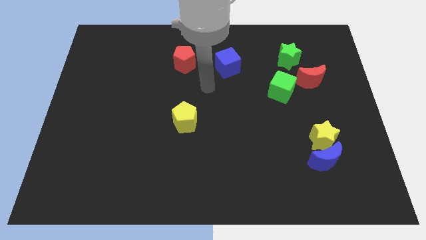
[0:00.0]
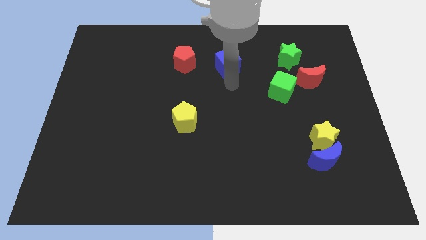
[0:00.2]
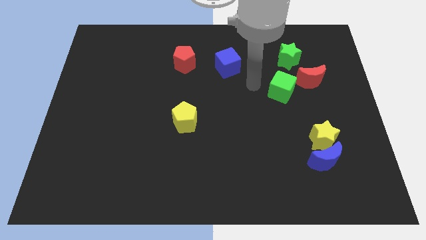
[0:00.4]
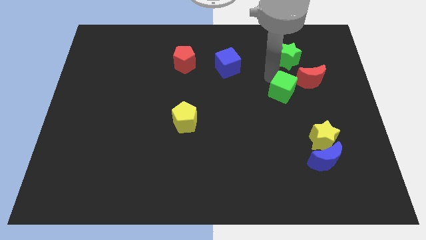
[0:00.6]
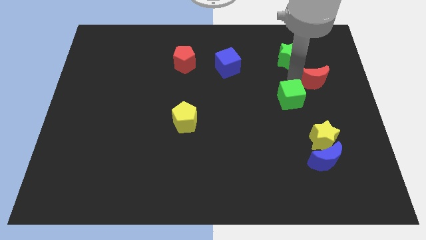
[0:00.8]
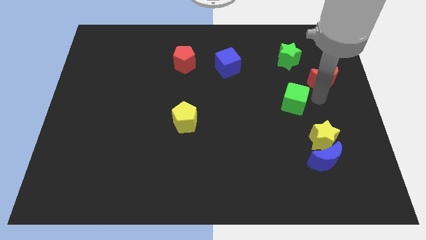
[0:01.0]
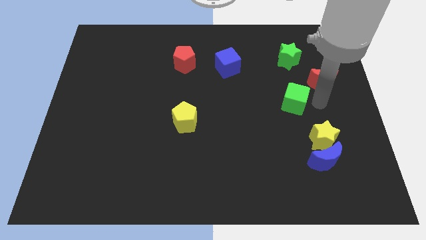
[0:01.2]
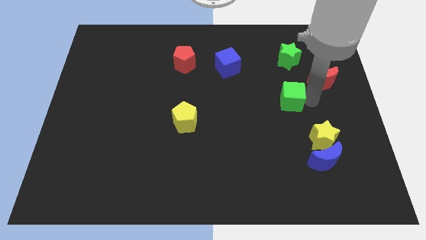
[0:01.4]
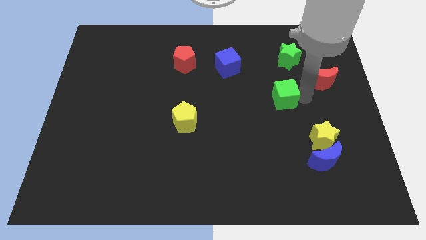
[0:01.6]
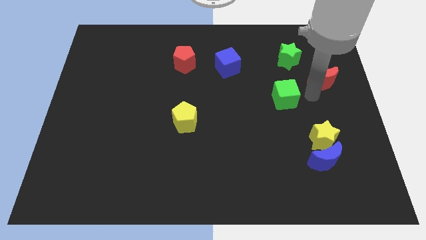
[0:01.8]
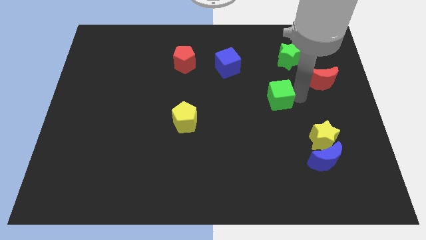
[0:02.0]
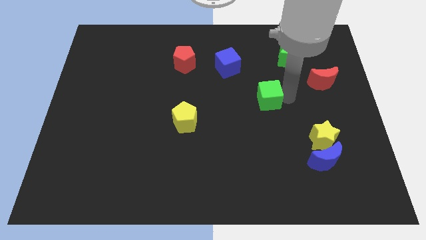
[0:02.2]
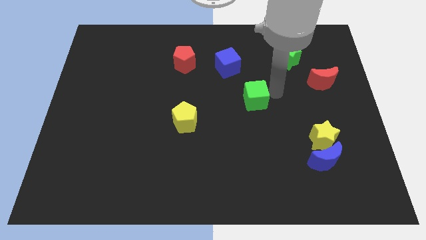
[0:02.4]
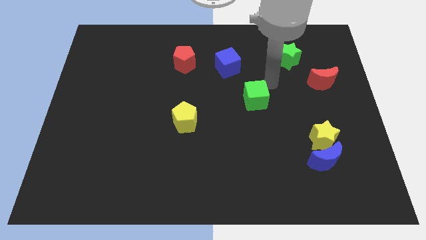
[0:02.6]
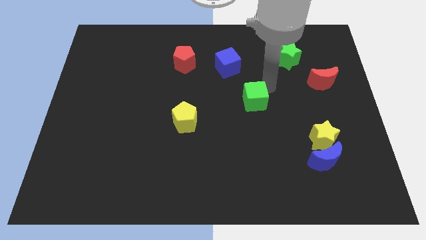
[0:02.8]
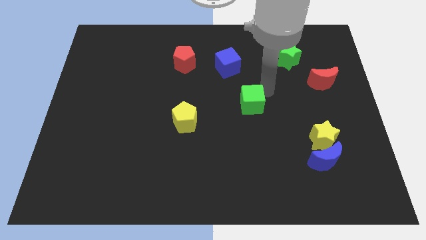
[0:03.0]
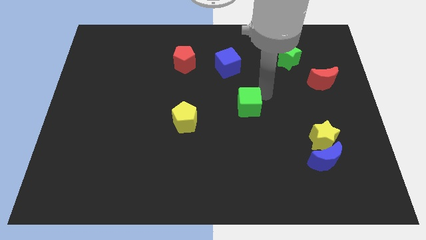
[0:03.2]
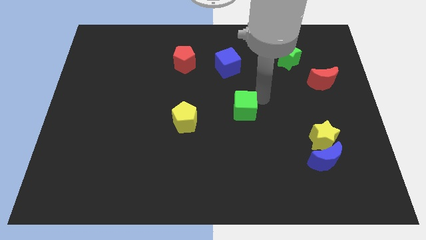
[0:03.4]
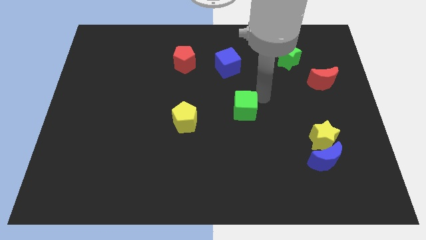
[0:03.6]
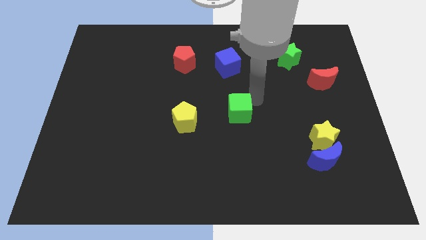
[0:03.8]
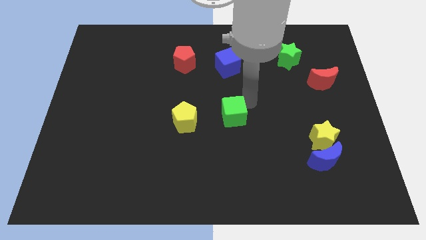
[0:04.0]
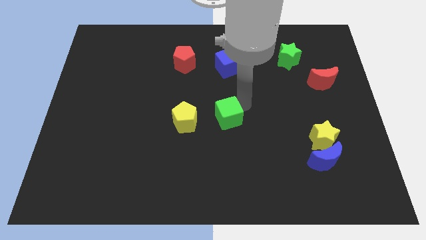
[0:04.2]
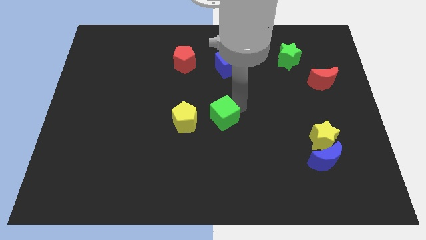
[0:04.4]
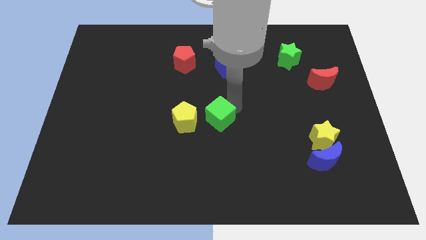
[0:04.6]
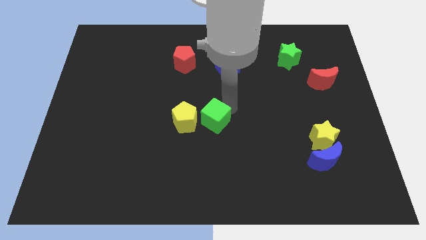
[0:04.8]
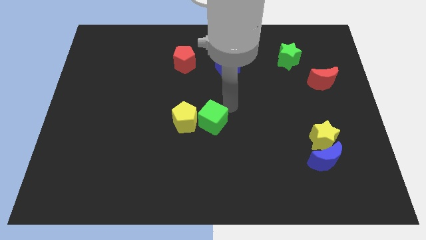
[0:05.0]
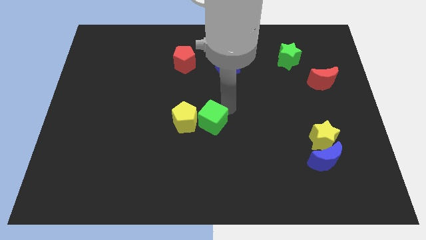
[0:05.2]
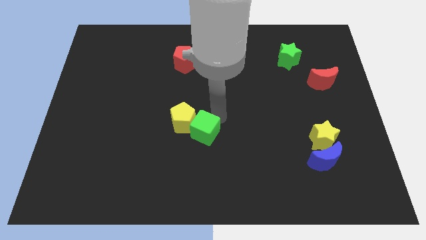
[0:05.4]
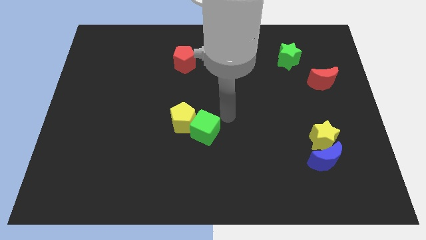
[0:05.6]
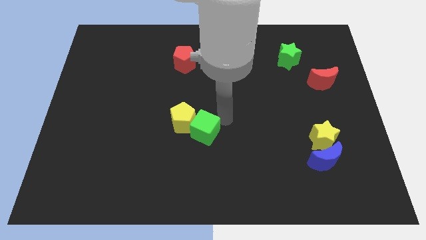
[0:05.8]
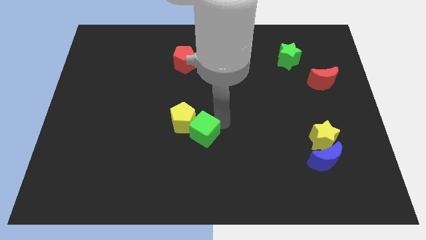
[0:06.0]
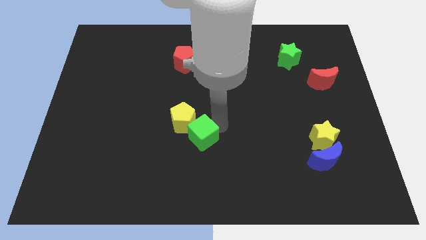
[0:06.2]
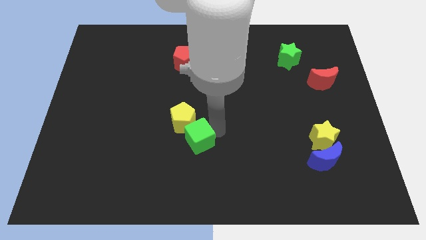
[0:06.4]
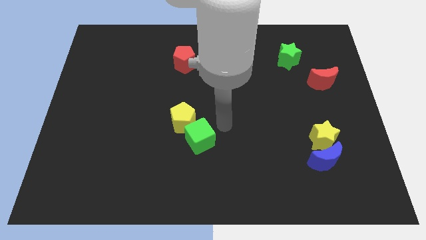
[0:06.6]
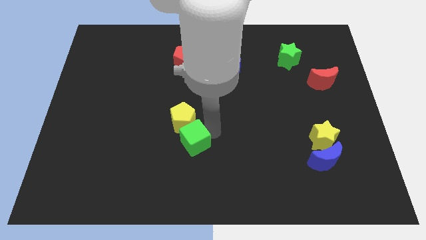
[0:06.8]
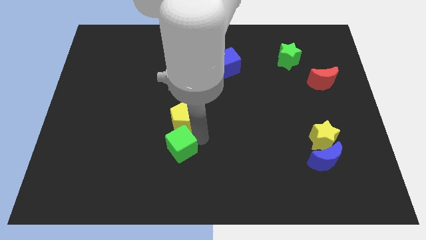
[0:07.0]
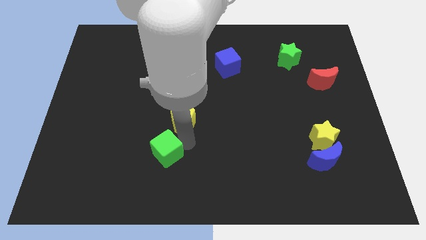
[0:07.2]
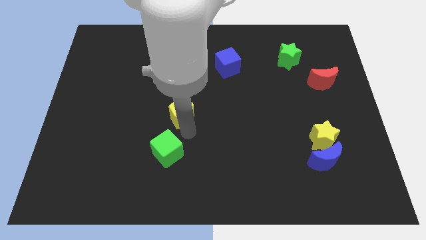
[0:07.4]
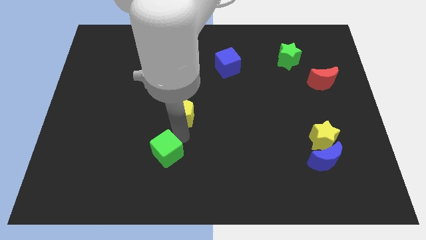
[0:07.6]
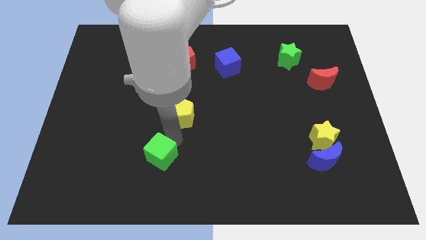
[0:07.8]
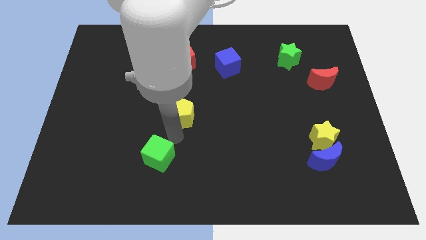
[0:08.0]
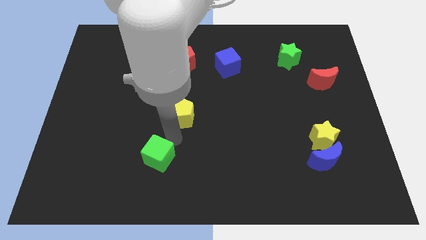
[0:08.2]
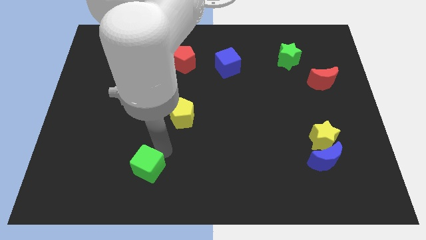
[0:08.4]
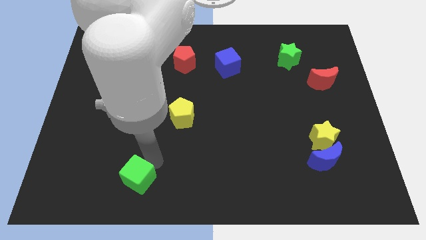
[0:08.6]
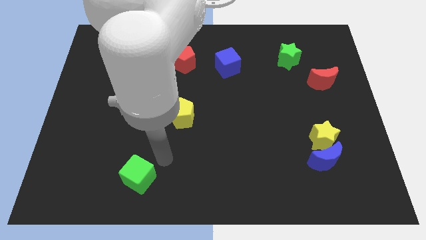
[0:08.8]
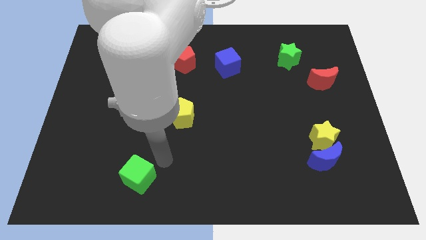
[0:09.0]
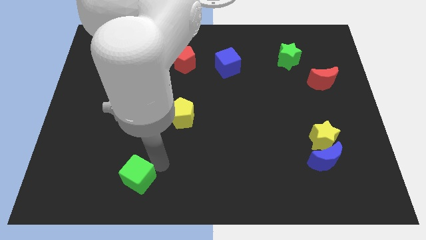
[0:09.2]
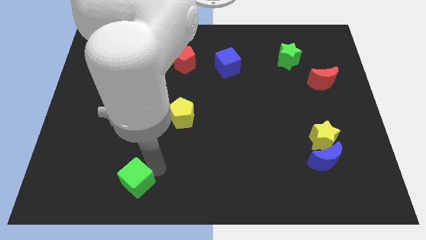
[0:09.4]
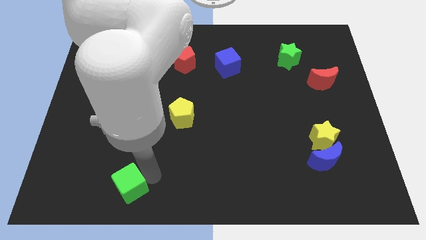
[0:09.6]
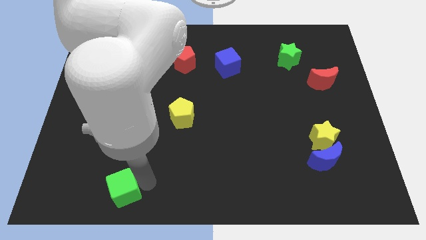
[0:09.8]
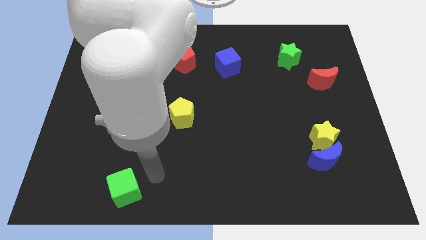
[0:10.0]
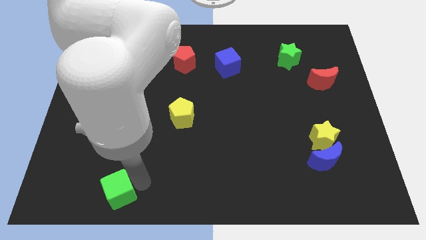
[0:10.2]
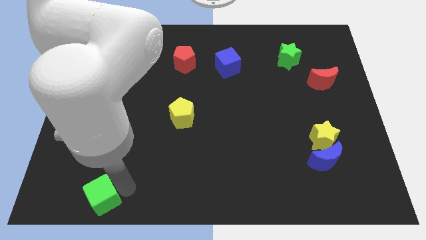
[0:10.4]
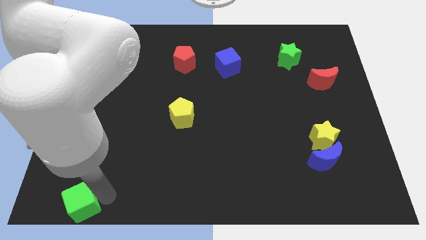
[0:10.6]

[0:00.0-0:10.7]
slide the green cube to the bottom left of the board

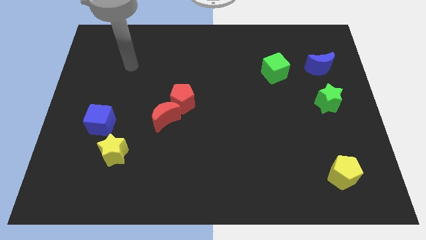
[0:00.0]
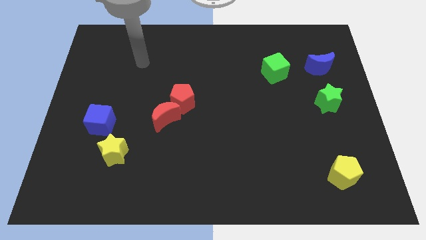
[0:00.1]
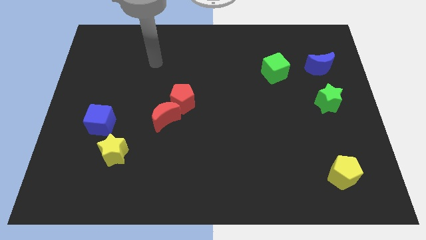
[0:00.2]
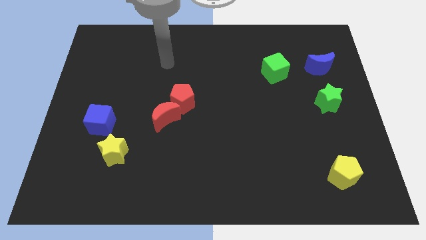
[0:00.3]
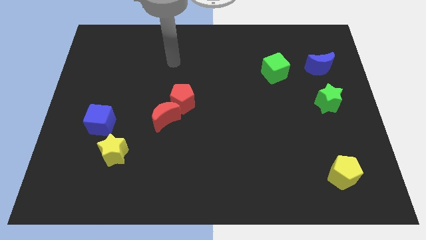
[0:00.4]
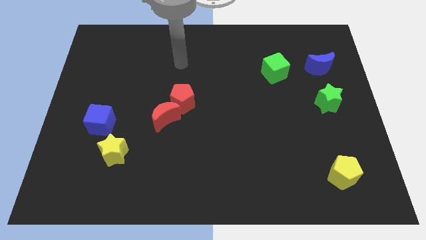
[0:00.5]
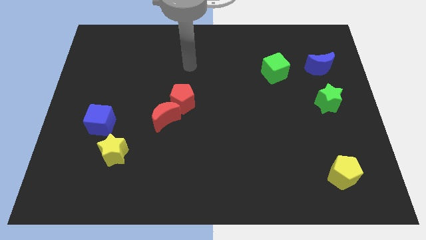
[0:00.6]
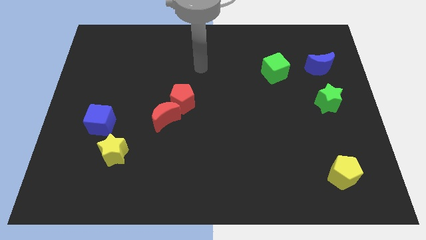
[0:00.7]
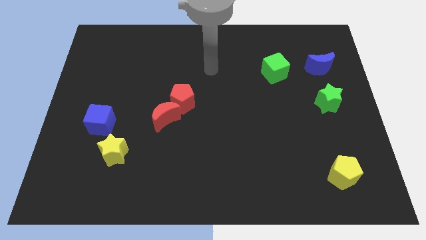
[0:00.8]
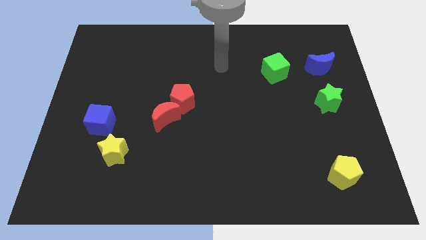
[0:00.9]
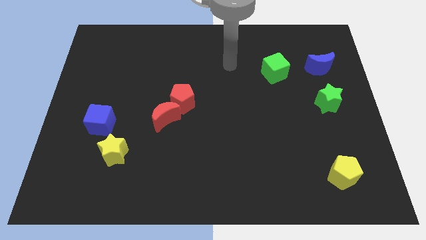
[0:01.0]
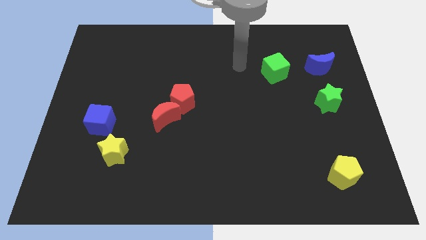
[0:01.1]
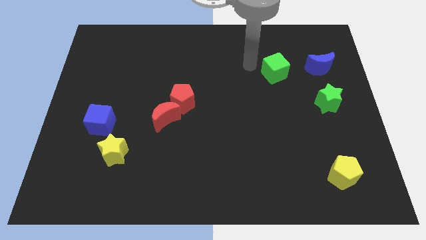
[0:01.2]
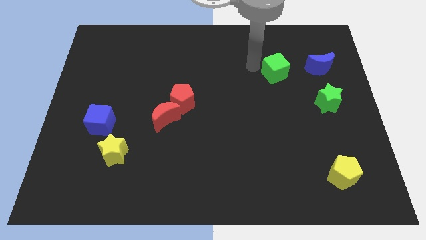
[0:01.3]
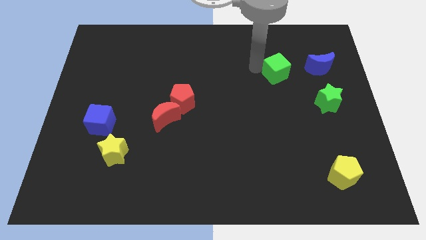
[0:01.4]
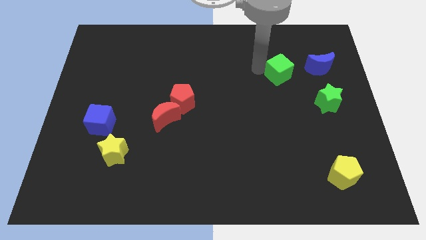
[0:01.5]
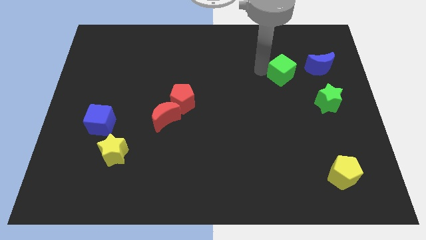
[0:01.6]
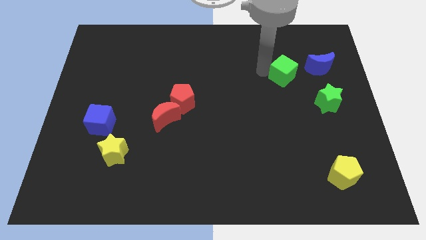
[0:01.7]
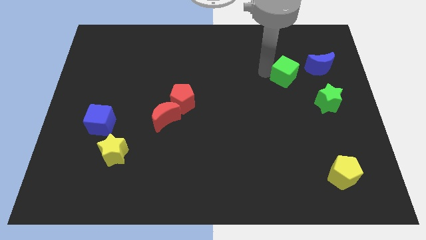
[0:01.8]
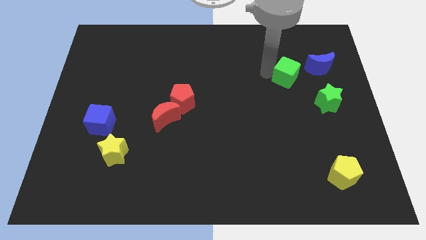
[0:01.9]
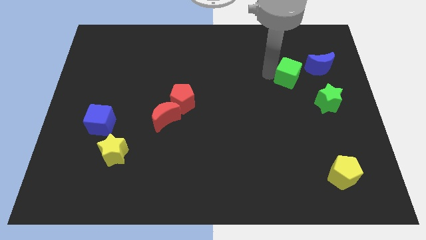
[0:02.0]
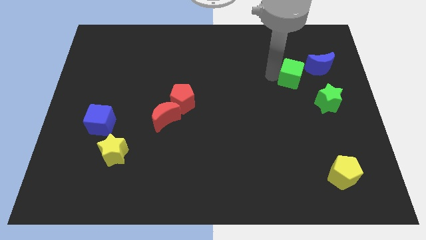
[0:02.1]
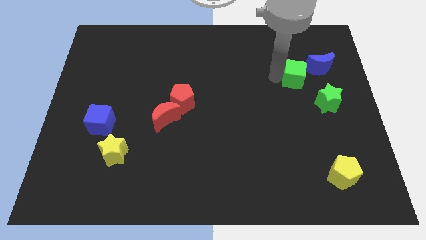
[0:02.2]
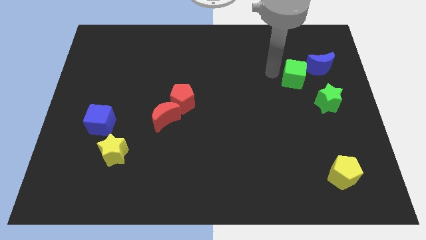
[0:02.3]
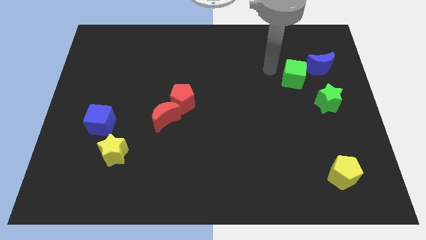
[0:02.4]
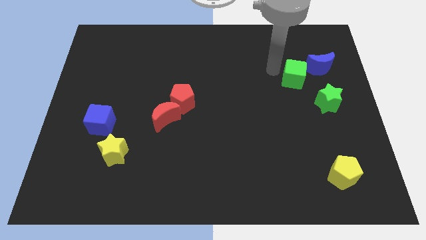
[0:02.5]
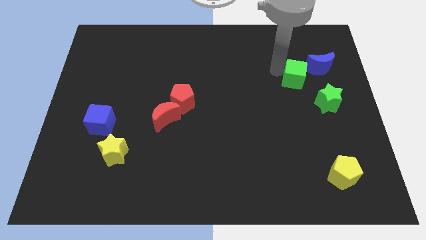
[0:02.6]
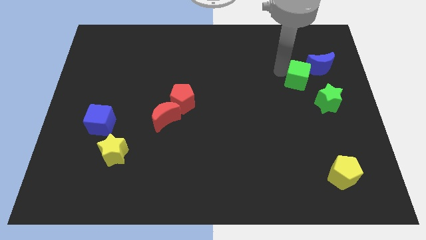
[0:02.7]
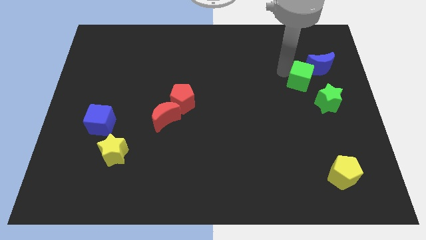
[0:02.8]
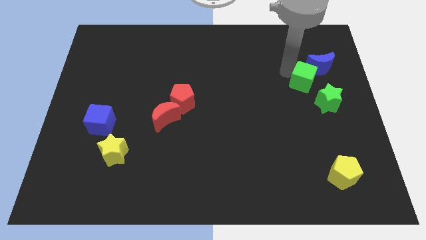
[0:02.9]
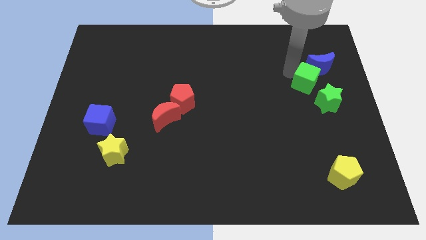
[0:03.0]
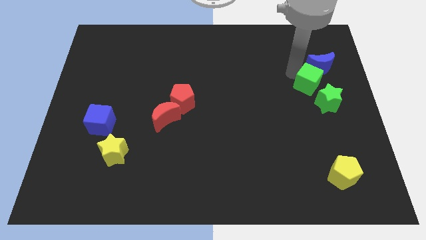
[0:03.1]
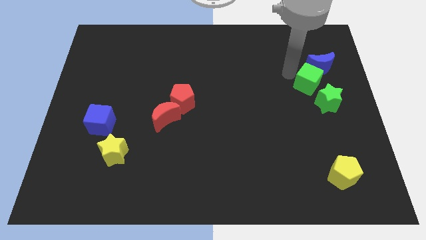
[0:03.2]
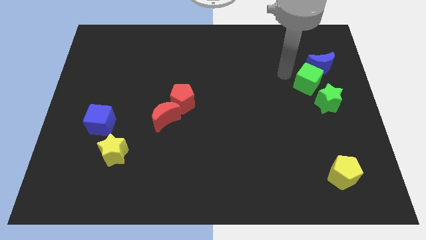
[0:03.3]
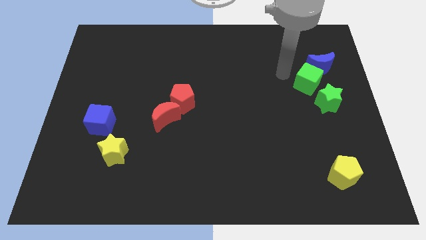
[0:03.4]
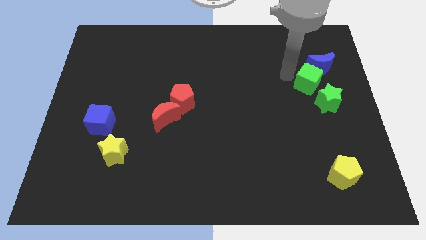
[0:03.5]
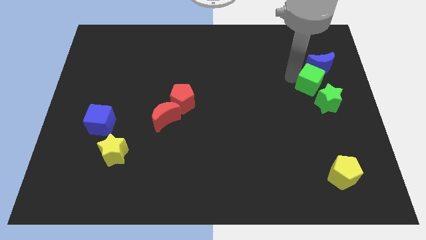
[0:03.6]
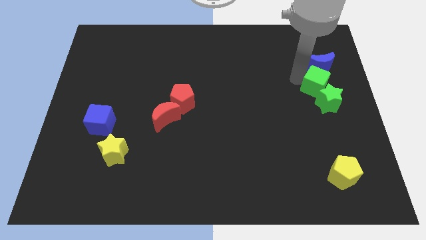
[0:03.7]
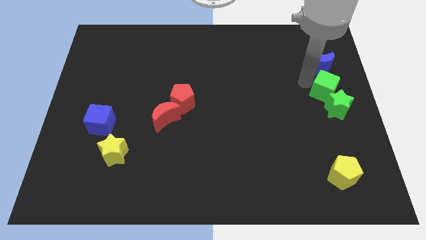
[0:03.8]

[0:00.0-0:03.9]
push the green cube to the center right
